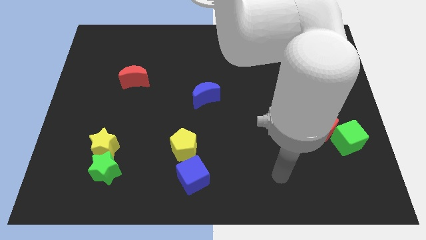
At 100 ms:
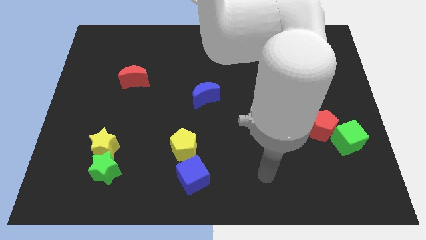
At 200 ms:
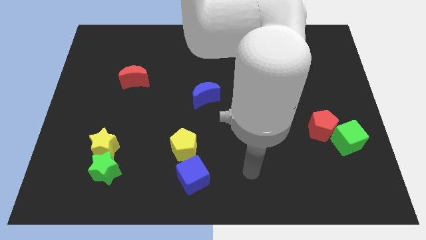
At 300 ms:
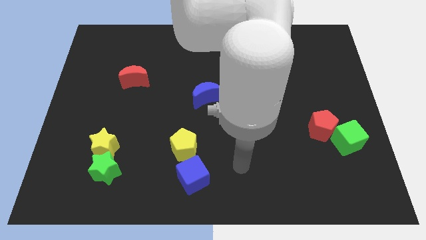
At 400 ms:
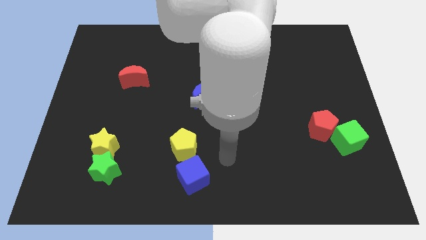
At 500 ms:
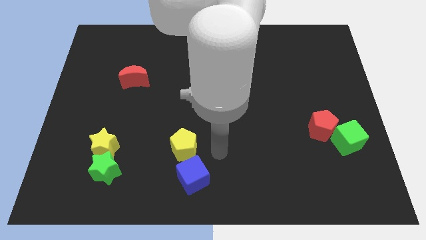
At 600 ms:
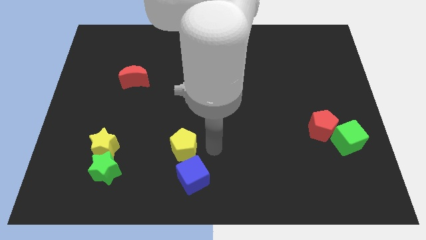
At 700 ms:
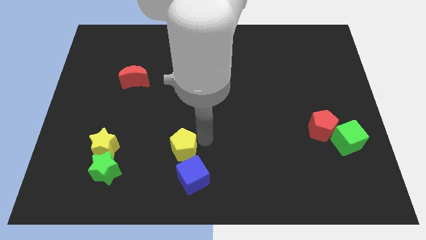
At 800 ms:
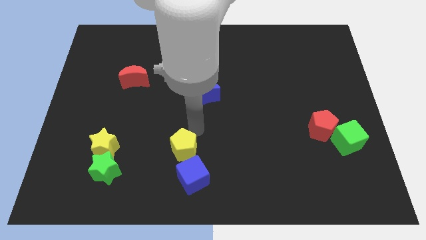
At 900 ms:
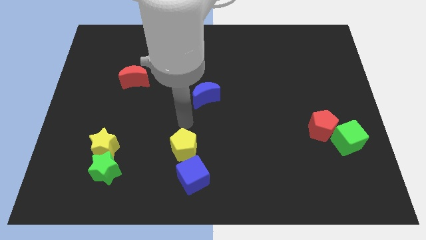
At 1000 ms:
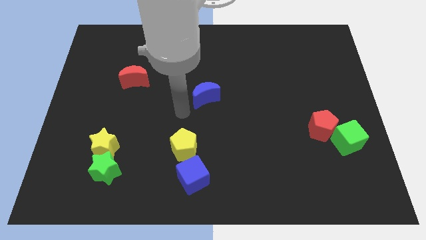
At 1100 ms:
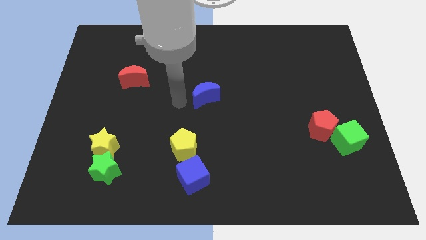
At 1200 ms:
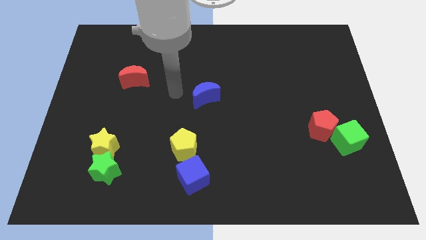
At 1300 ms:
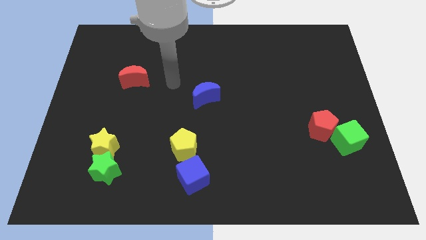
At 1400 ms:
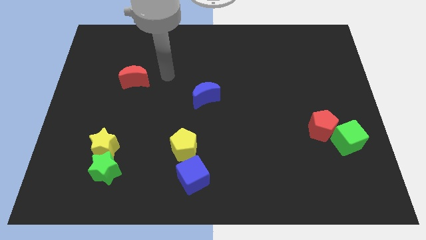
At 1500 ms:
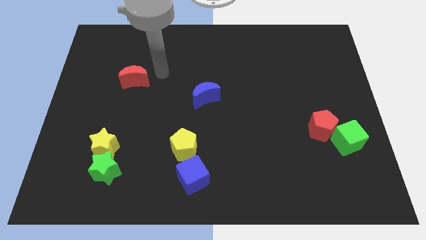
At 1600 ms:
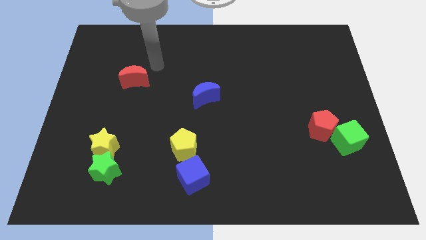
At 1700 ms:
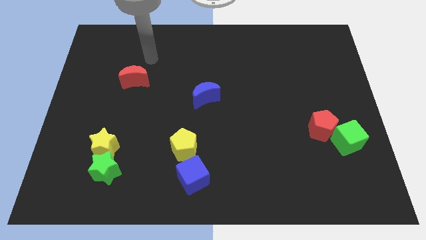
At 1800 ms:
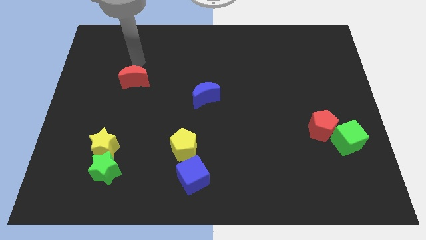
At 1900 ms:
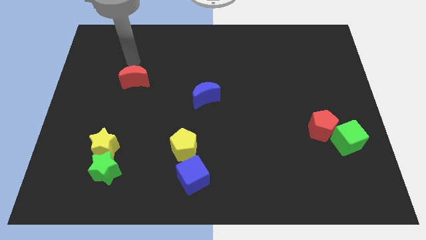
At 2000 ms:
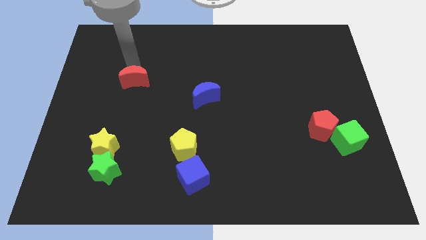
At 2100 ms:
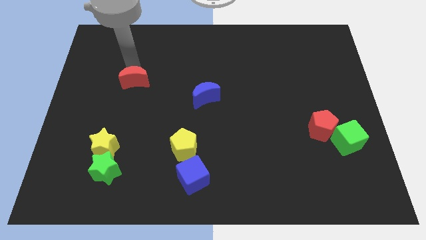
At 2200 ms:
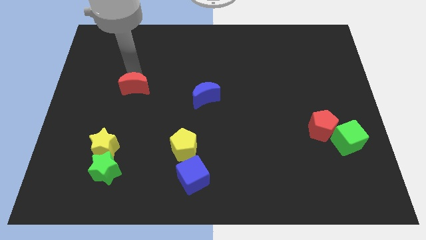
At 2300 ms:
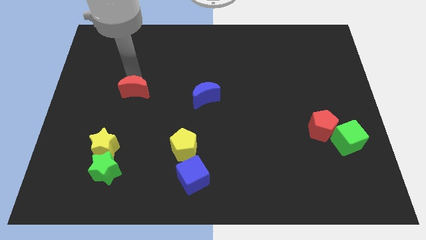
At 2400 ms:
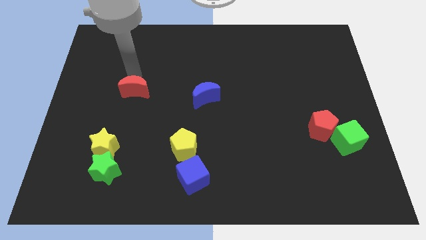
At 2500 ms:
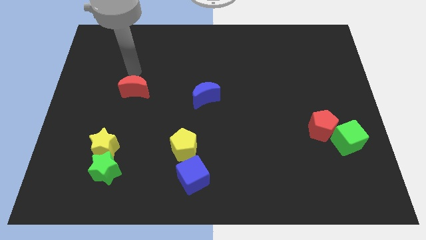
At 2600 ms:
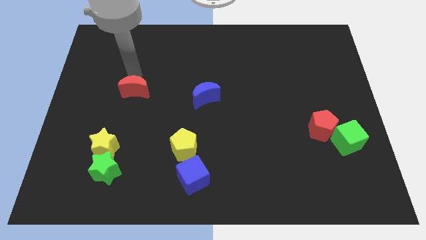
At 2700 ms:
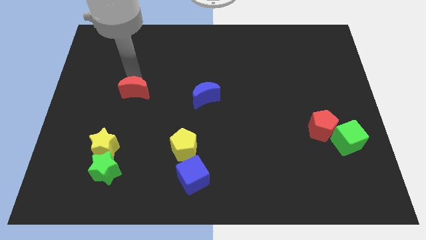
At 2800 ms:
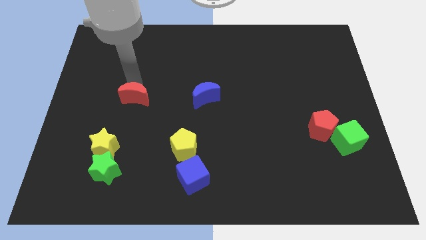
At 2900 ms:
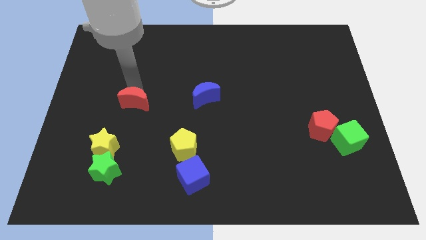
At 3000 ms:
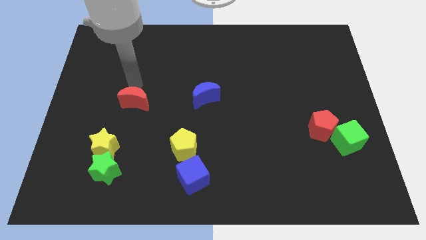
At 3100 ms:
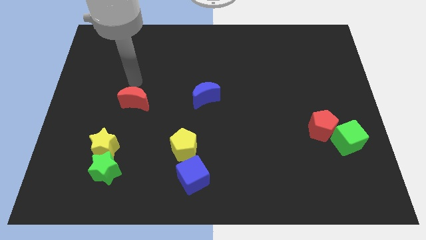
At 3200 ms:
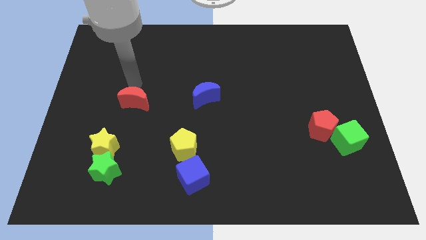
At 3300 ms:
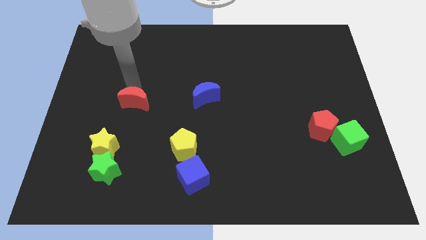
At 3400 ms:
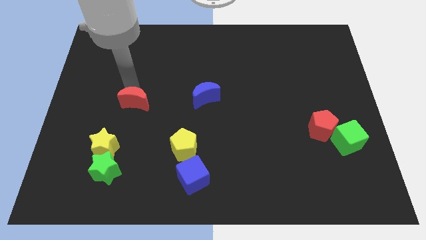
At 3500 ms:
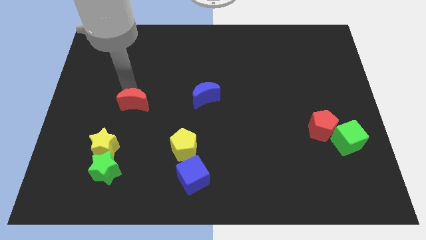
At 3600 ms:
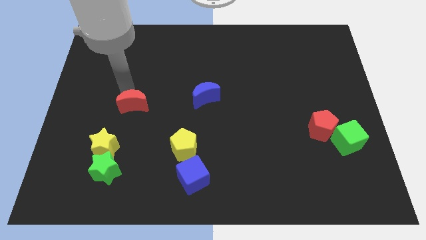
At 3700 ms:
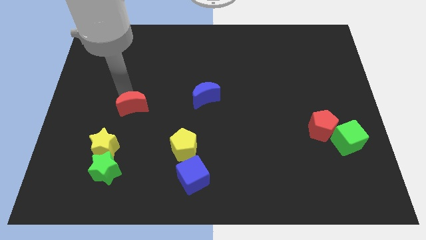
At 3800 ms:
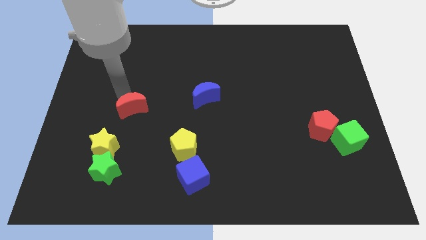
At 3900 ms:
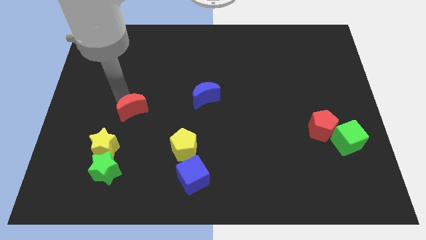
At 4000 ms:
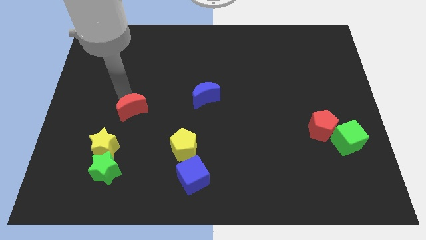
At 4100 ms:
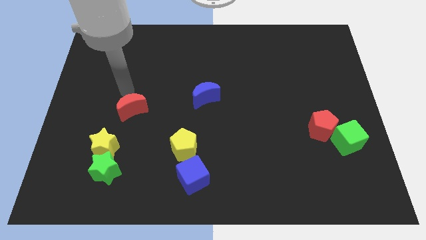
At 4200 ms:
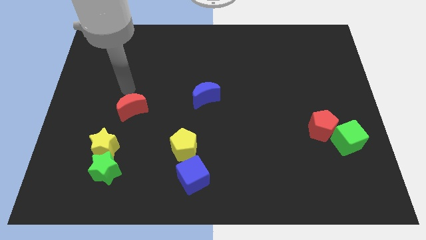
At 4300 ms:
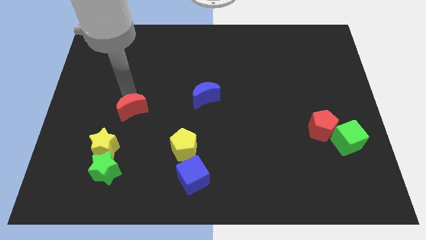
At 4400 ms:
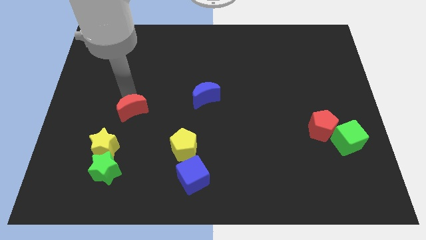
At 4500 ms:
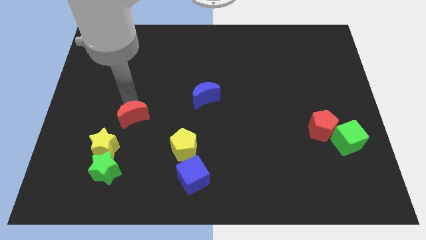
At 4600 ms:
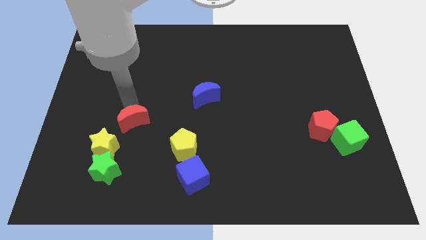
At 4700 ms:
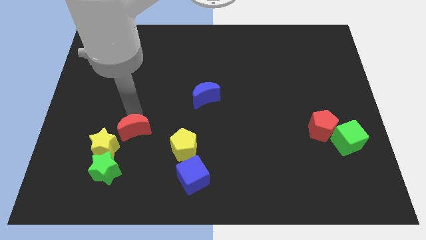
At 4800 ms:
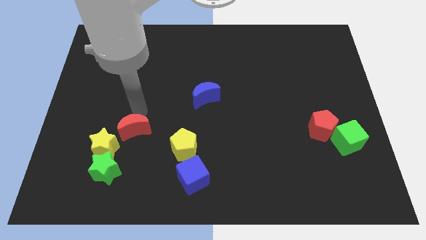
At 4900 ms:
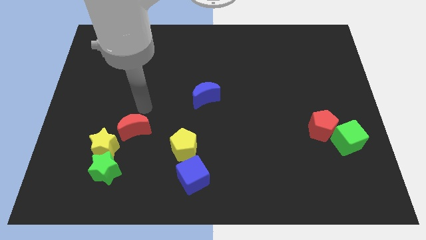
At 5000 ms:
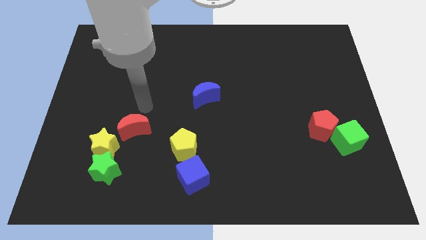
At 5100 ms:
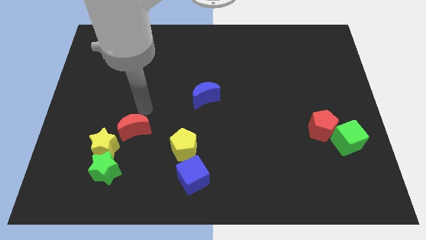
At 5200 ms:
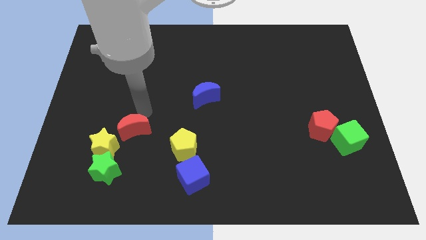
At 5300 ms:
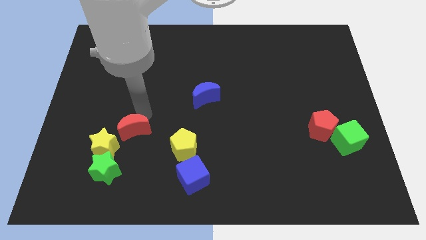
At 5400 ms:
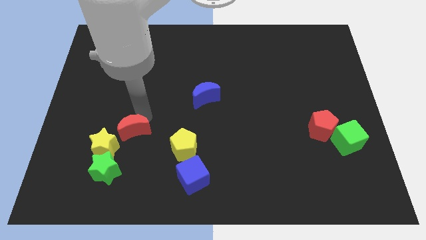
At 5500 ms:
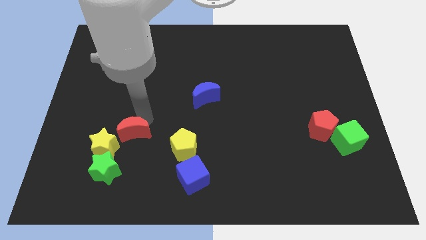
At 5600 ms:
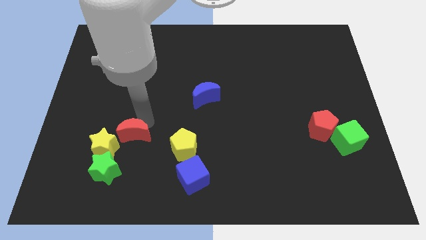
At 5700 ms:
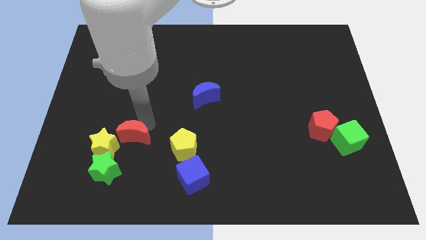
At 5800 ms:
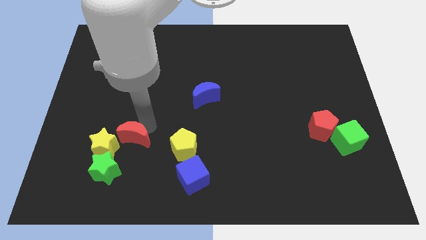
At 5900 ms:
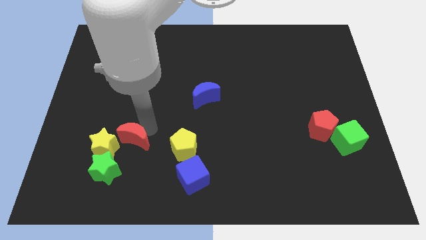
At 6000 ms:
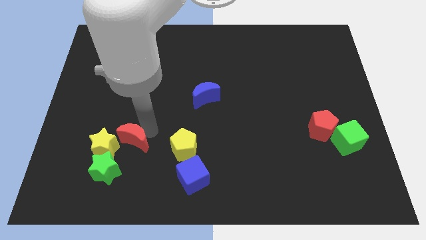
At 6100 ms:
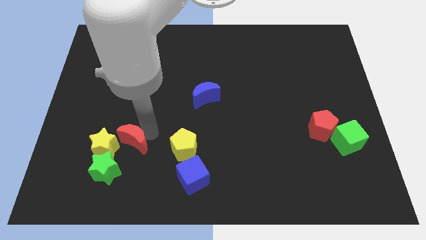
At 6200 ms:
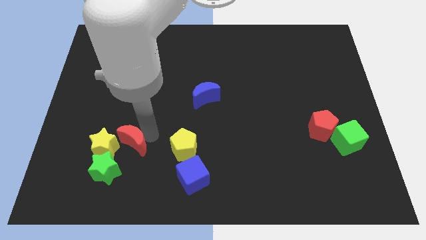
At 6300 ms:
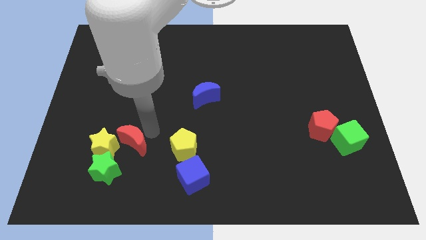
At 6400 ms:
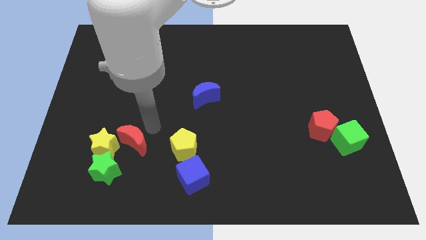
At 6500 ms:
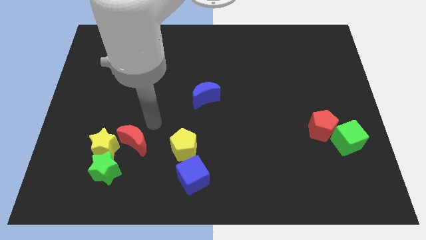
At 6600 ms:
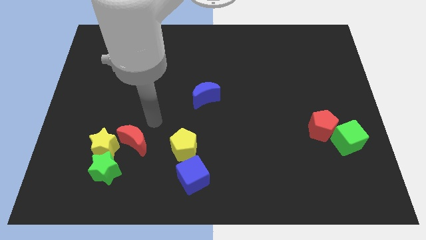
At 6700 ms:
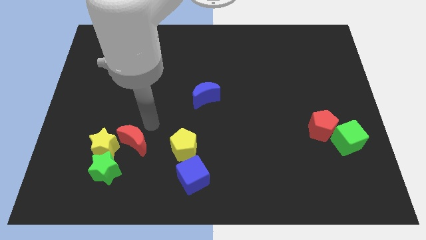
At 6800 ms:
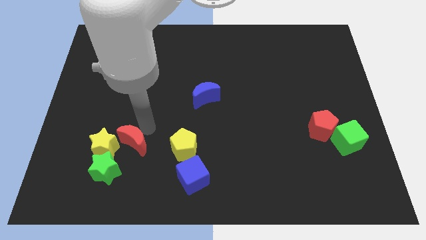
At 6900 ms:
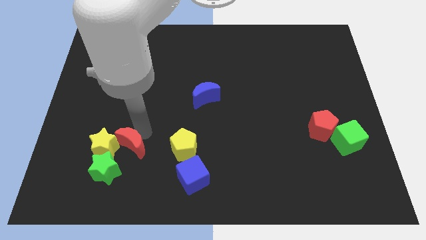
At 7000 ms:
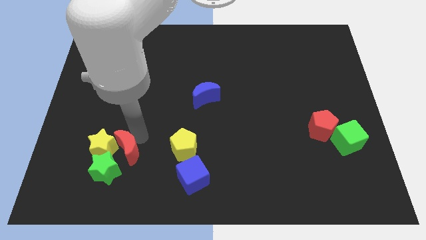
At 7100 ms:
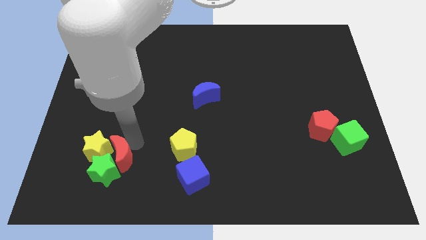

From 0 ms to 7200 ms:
move the red moon close to the green star

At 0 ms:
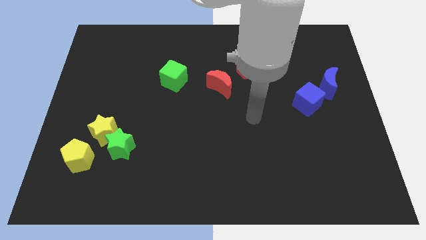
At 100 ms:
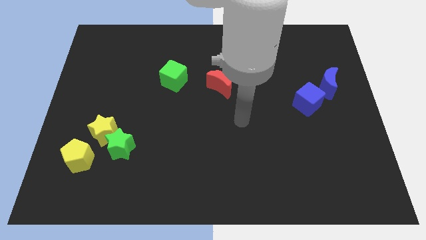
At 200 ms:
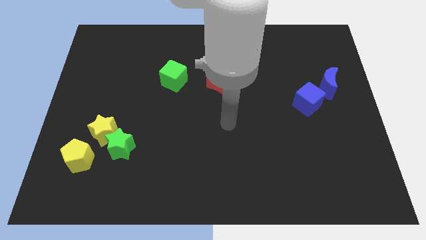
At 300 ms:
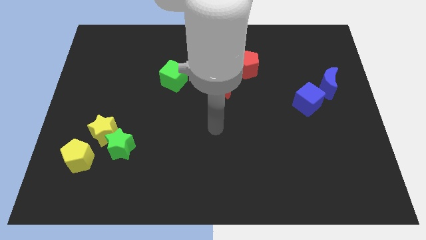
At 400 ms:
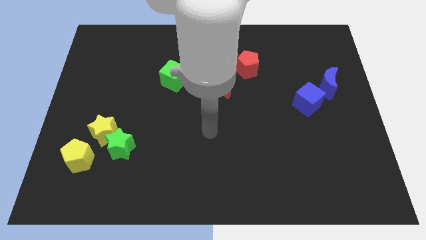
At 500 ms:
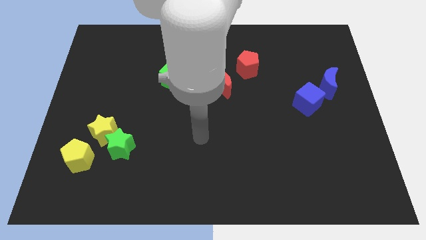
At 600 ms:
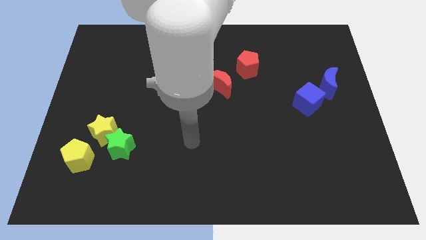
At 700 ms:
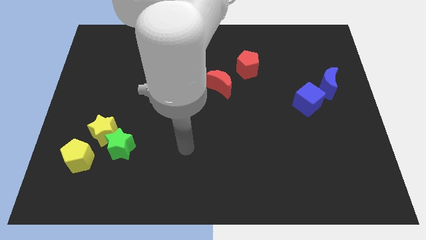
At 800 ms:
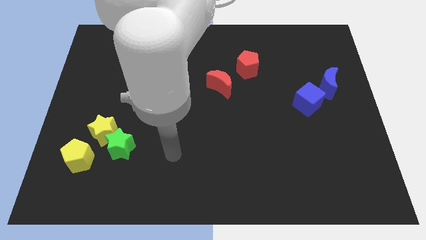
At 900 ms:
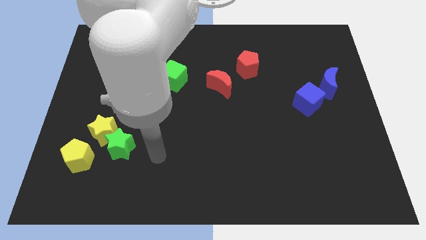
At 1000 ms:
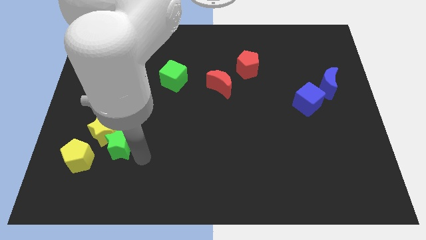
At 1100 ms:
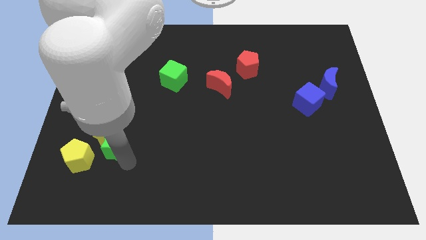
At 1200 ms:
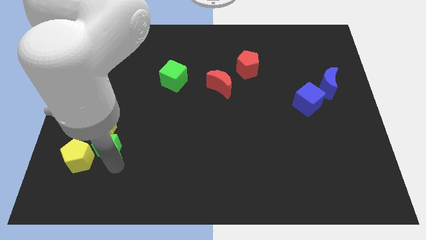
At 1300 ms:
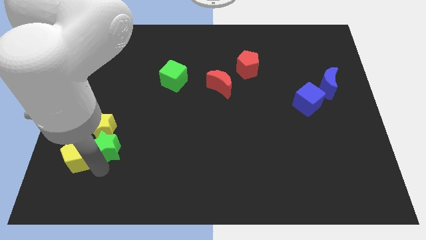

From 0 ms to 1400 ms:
move the yellow pentagon to the green star
